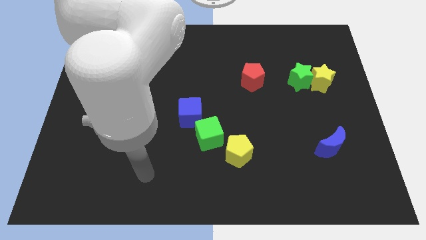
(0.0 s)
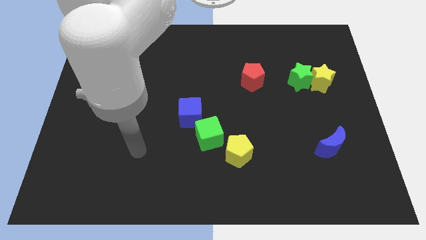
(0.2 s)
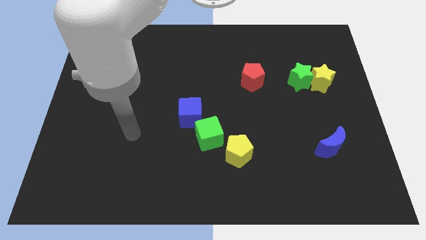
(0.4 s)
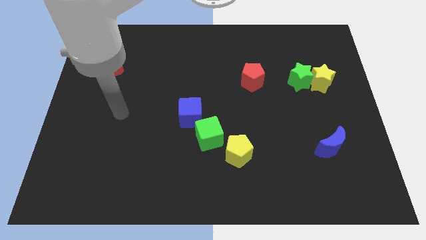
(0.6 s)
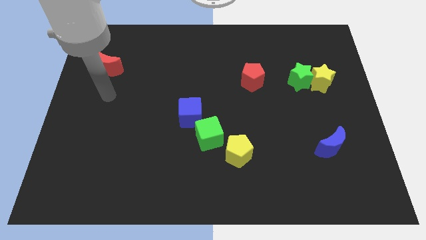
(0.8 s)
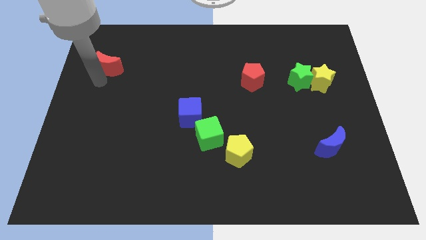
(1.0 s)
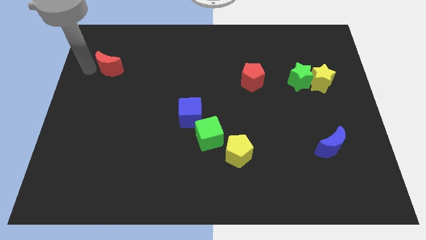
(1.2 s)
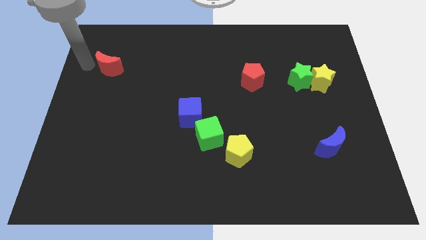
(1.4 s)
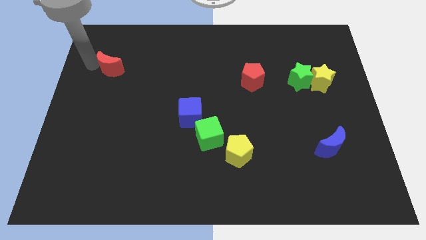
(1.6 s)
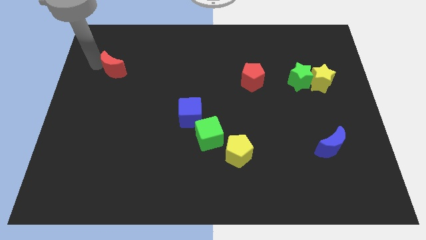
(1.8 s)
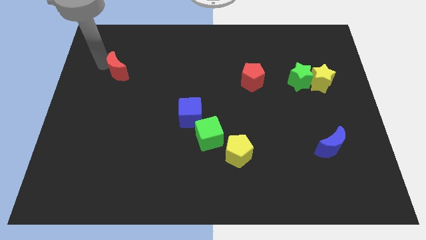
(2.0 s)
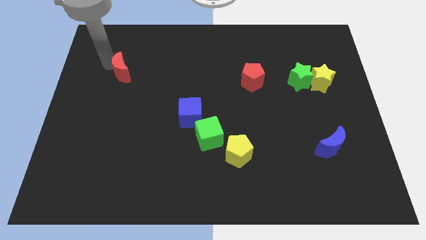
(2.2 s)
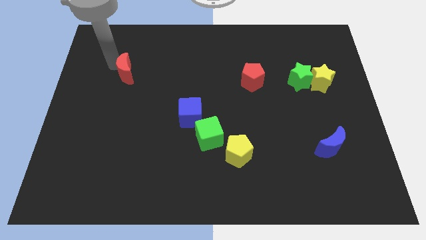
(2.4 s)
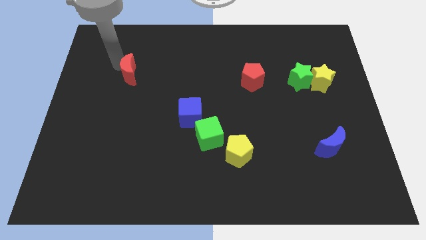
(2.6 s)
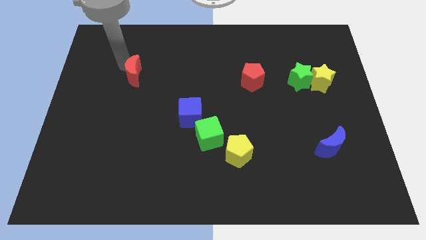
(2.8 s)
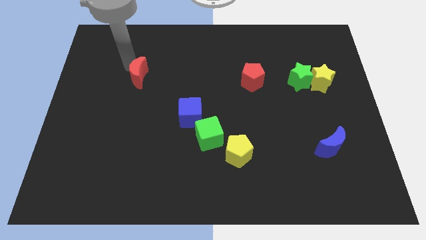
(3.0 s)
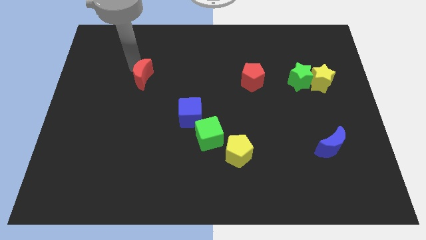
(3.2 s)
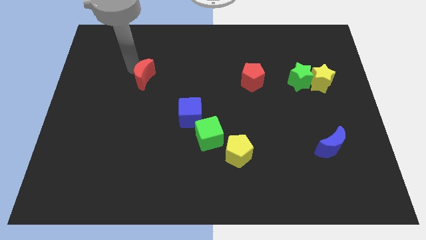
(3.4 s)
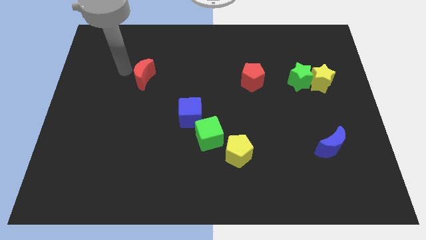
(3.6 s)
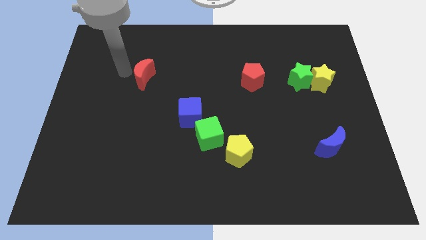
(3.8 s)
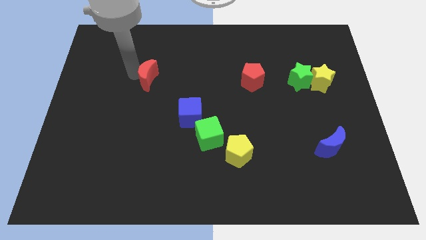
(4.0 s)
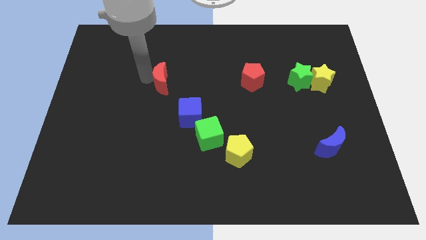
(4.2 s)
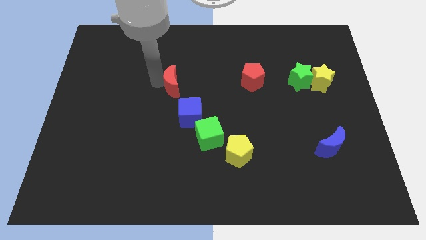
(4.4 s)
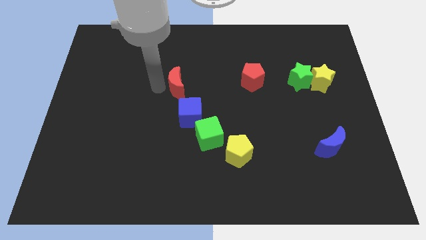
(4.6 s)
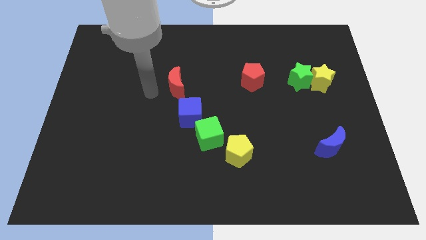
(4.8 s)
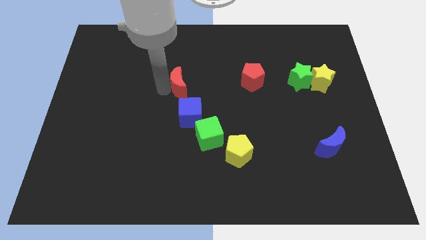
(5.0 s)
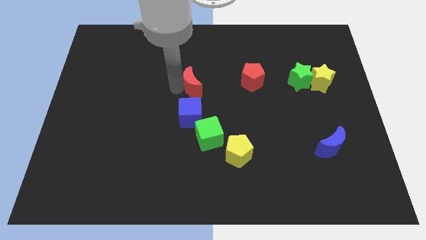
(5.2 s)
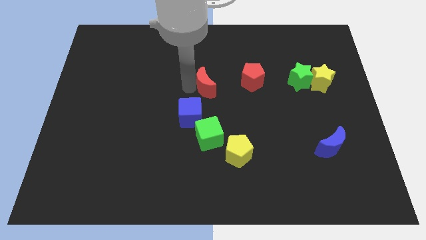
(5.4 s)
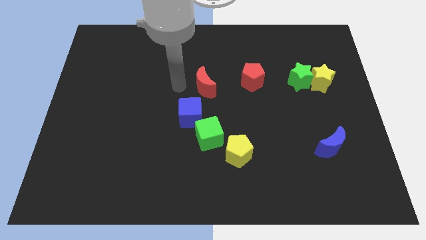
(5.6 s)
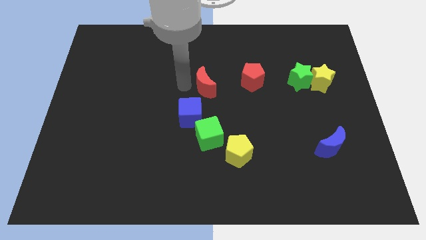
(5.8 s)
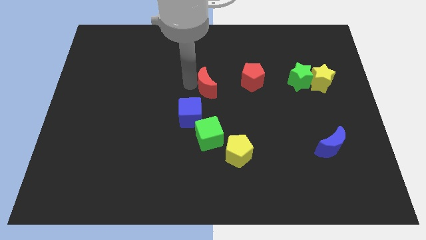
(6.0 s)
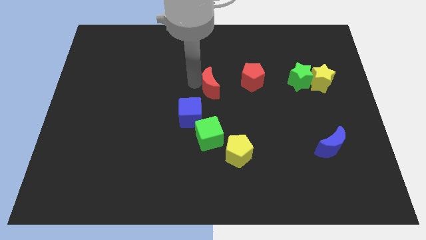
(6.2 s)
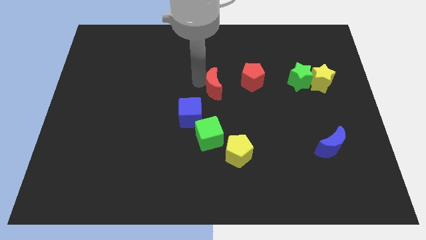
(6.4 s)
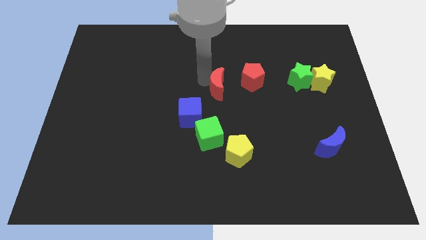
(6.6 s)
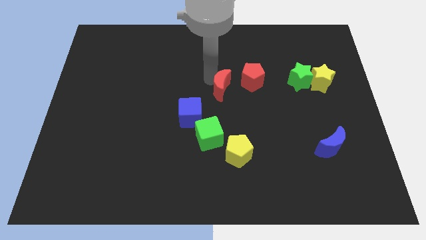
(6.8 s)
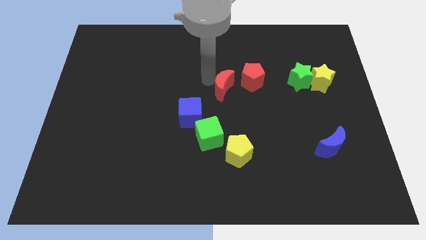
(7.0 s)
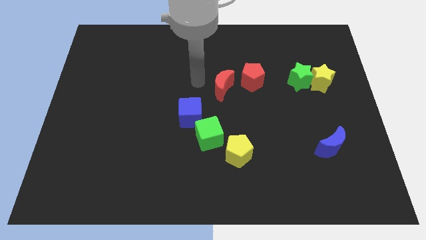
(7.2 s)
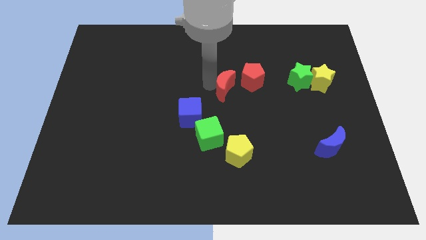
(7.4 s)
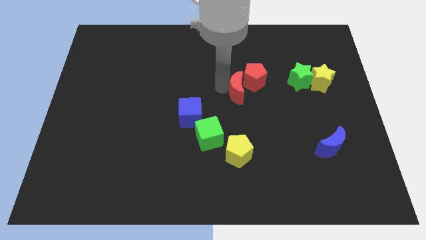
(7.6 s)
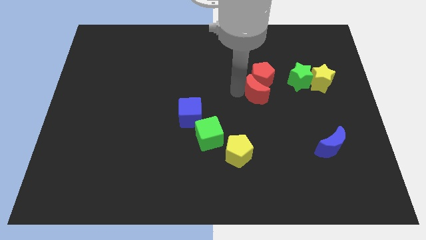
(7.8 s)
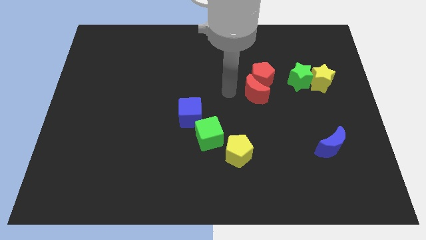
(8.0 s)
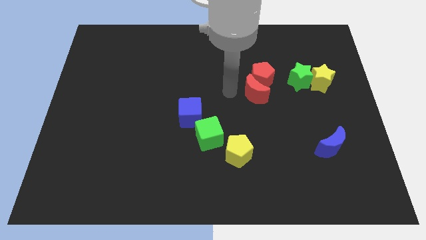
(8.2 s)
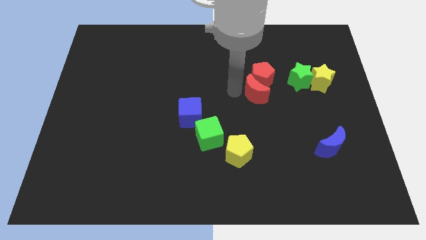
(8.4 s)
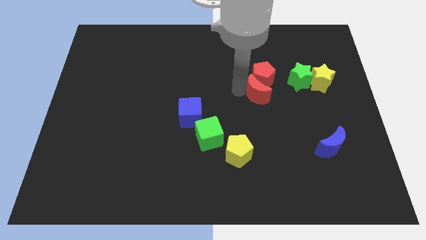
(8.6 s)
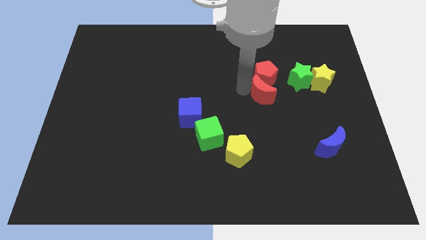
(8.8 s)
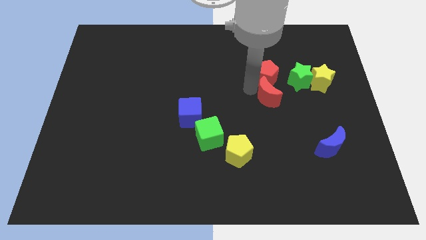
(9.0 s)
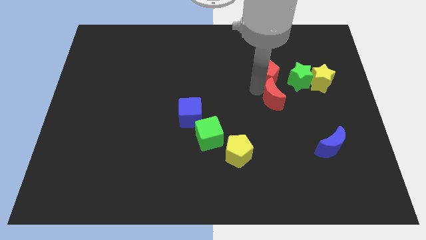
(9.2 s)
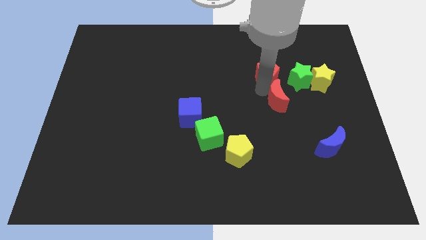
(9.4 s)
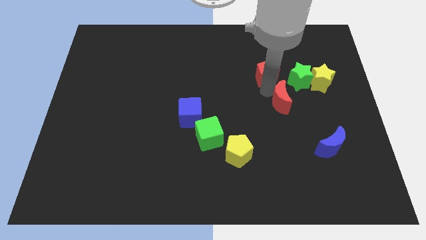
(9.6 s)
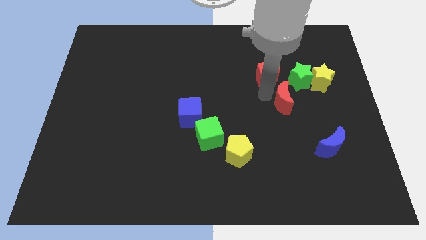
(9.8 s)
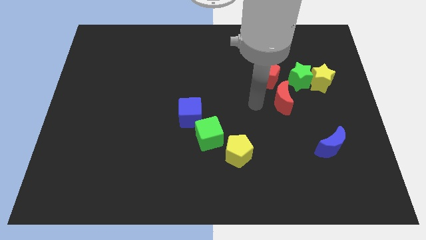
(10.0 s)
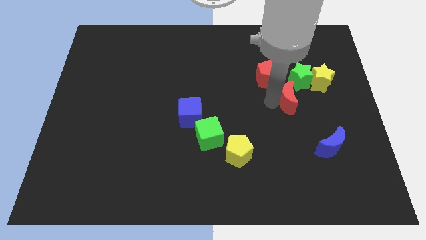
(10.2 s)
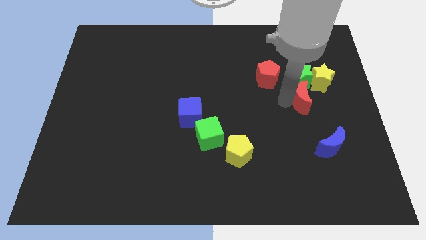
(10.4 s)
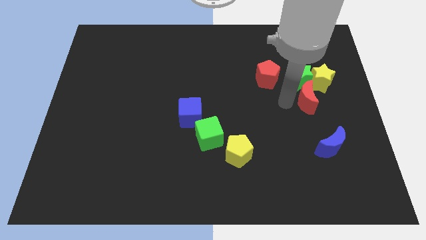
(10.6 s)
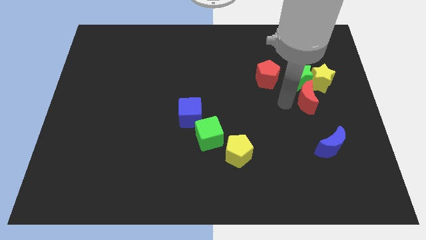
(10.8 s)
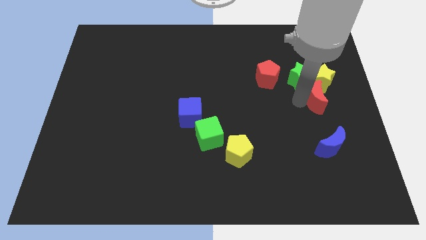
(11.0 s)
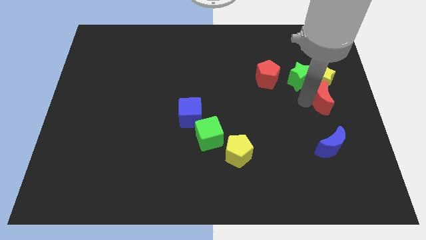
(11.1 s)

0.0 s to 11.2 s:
slide the red moon to the right side of the board

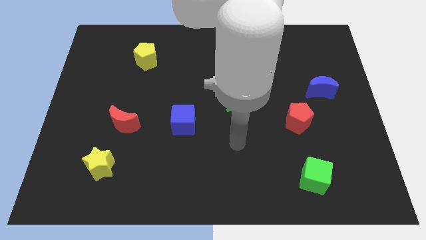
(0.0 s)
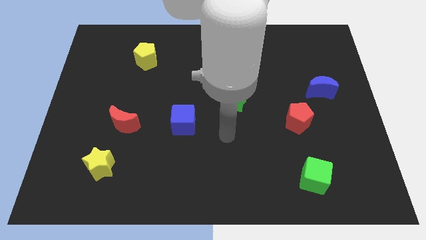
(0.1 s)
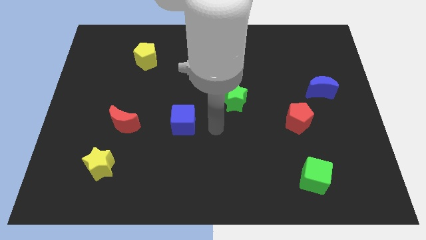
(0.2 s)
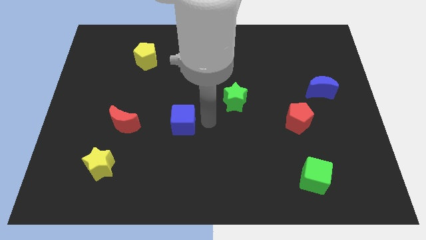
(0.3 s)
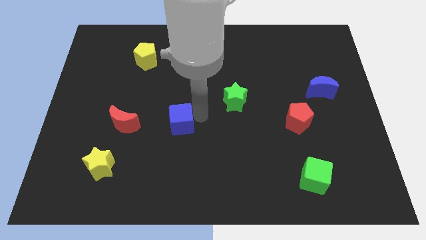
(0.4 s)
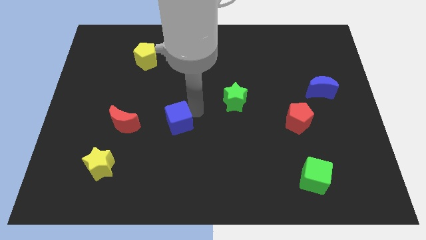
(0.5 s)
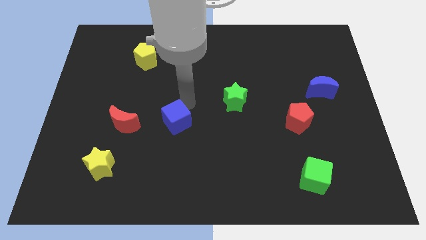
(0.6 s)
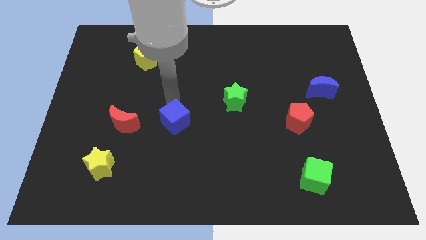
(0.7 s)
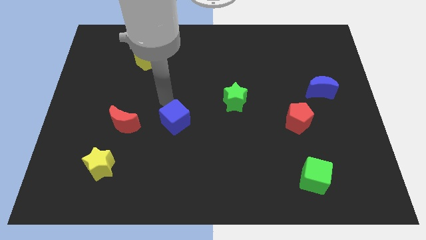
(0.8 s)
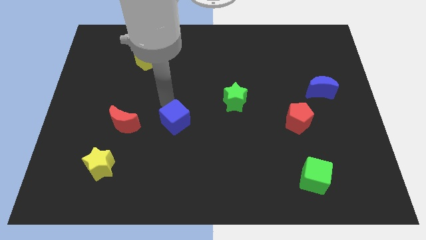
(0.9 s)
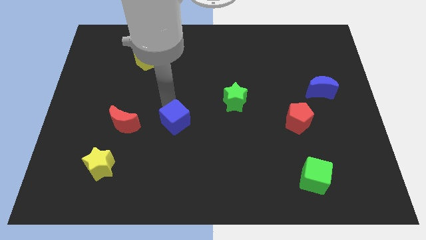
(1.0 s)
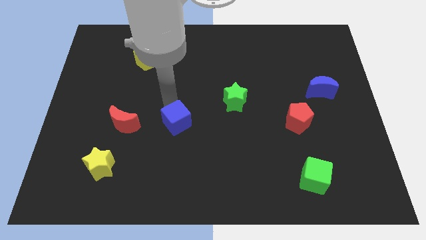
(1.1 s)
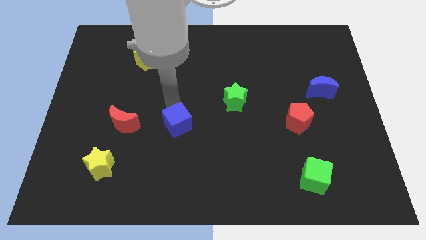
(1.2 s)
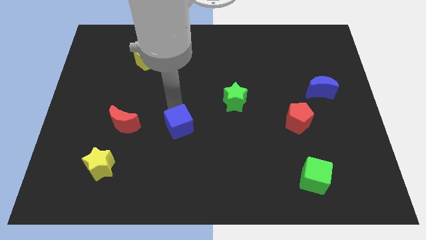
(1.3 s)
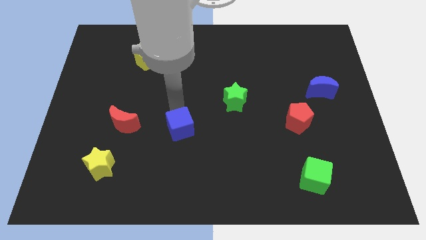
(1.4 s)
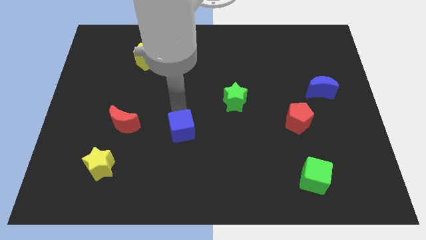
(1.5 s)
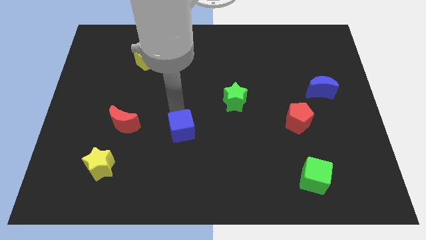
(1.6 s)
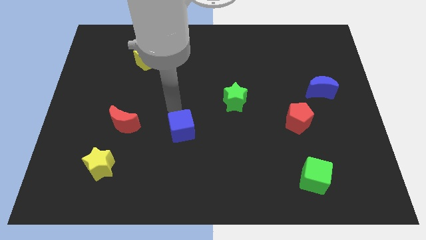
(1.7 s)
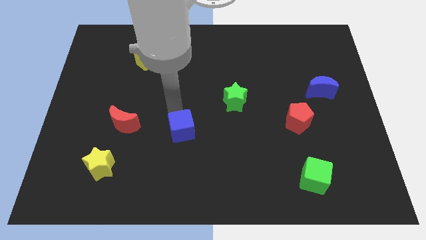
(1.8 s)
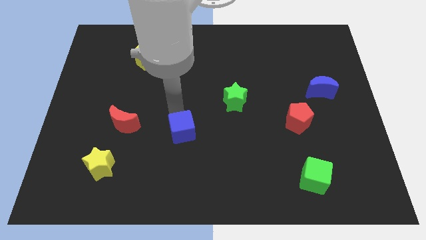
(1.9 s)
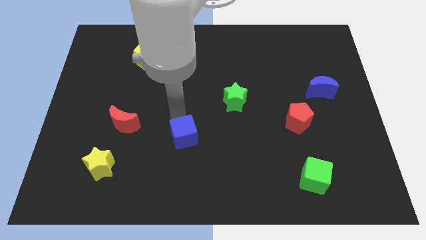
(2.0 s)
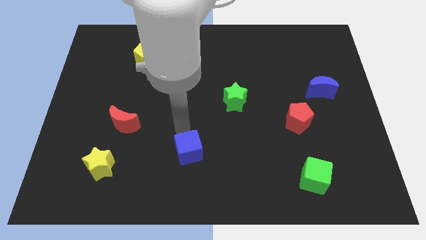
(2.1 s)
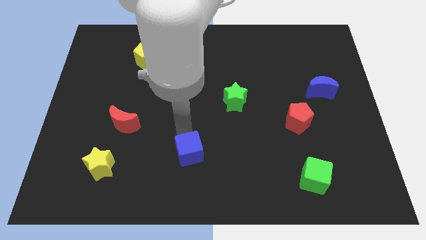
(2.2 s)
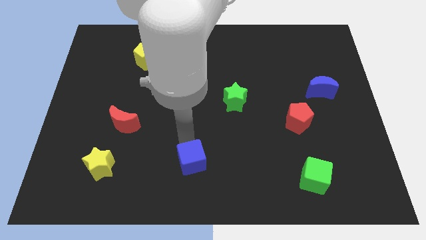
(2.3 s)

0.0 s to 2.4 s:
slide the blue cube to the bottom side
